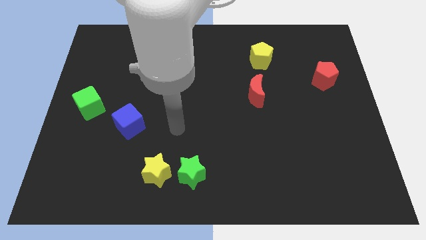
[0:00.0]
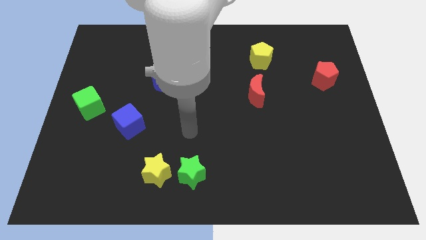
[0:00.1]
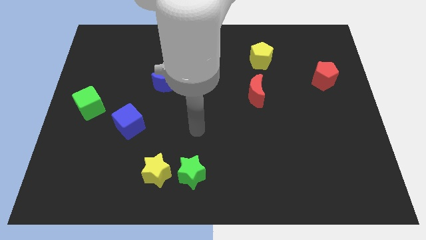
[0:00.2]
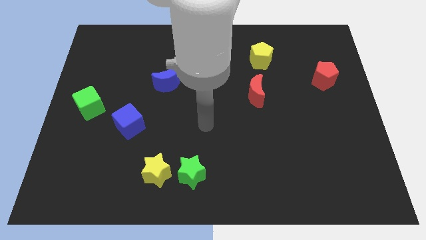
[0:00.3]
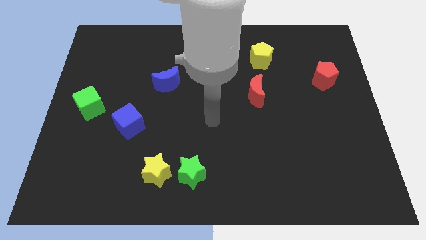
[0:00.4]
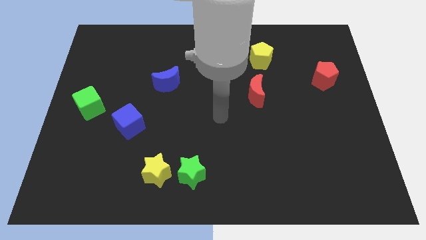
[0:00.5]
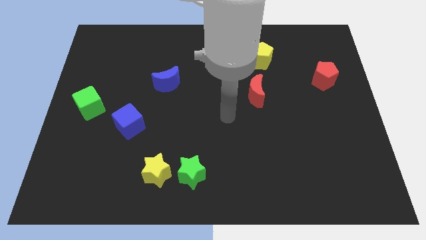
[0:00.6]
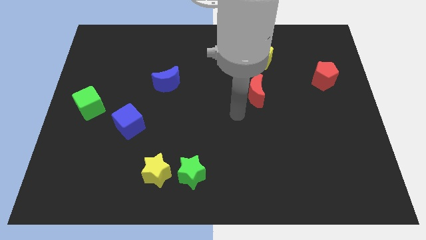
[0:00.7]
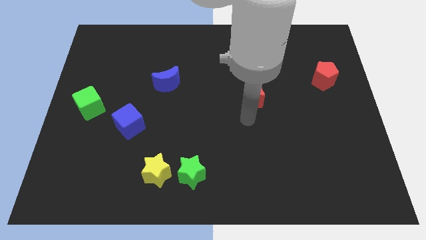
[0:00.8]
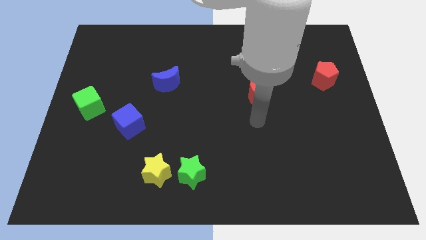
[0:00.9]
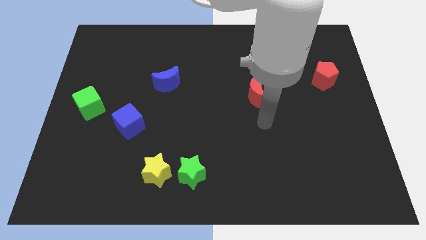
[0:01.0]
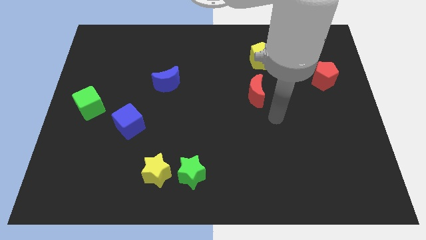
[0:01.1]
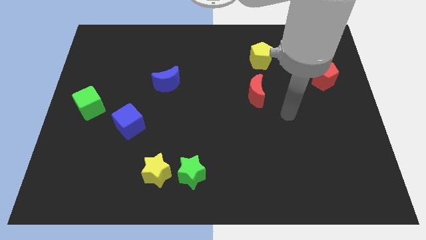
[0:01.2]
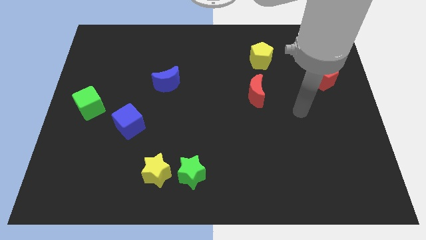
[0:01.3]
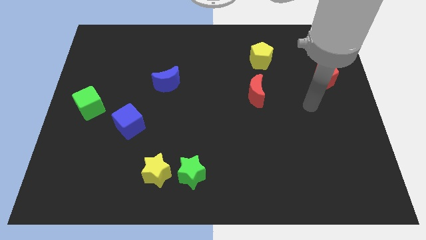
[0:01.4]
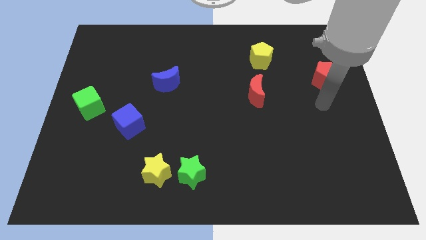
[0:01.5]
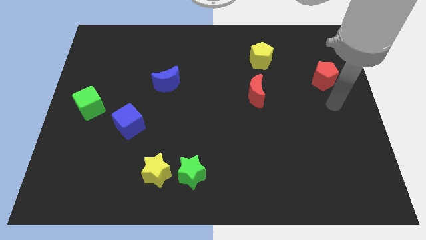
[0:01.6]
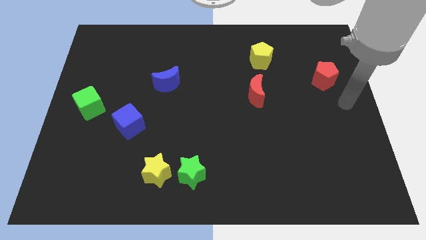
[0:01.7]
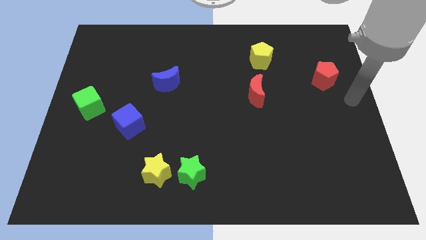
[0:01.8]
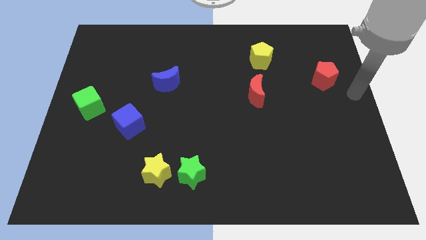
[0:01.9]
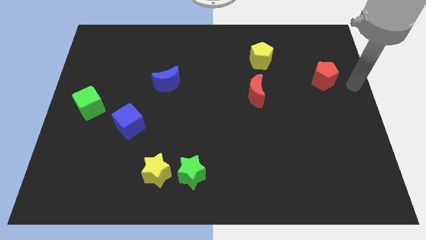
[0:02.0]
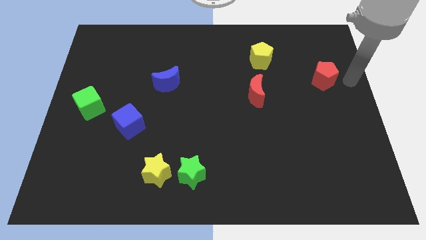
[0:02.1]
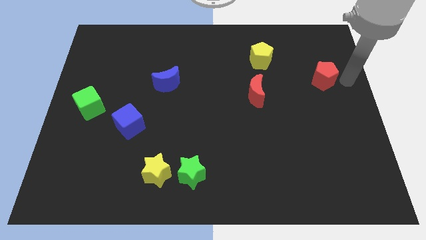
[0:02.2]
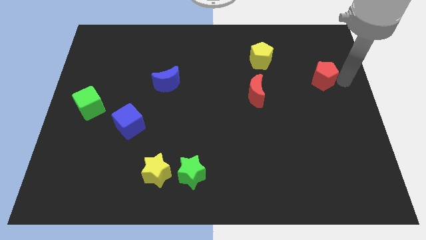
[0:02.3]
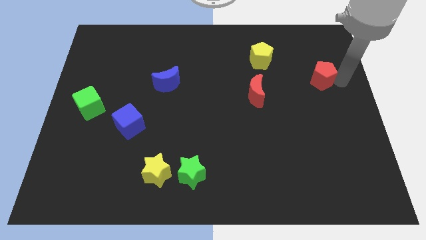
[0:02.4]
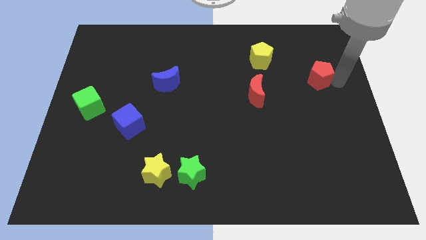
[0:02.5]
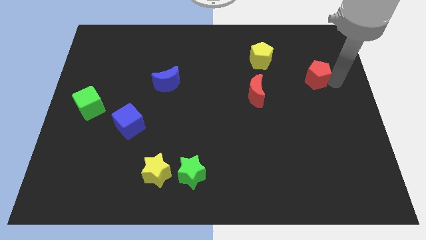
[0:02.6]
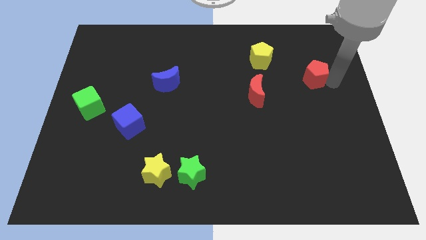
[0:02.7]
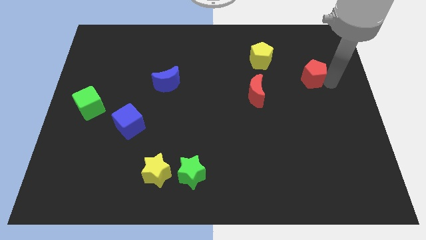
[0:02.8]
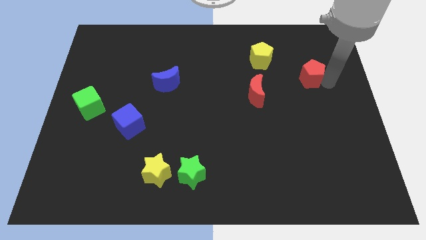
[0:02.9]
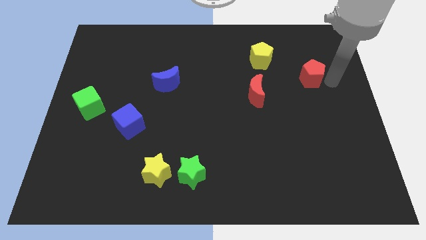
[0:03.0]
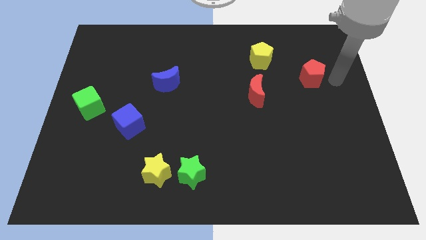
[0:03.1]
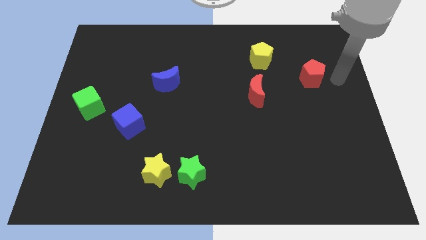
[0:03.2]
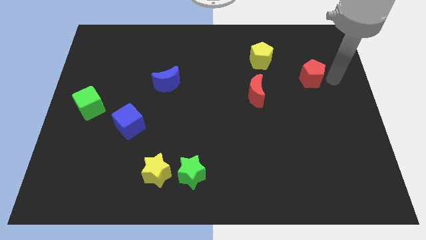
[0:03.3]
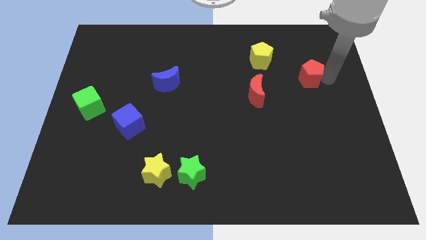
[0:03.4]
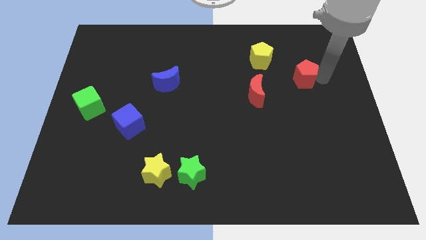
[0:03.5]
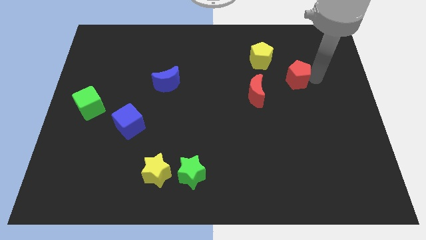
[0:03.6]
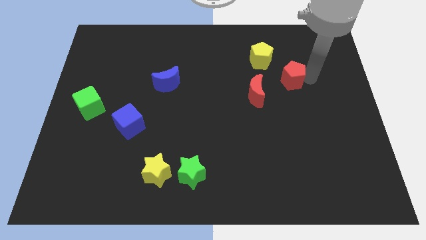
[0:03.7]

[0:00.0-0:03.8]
slide the red pentagon a little bit to the left

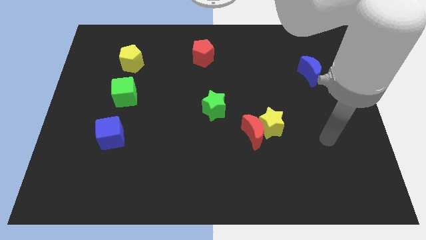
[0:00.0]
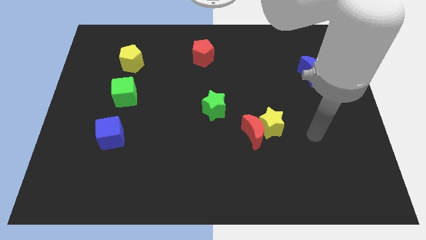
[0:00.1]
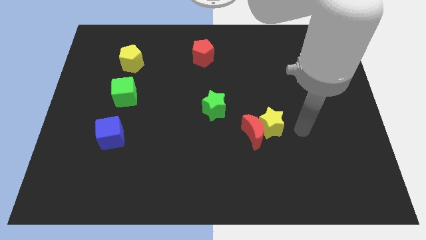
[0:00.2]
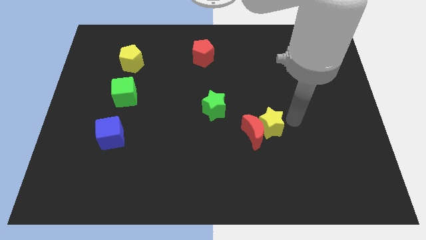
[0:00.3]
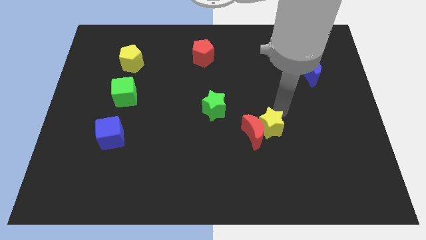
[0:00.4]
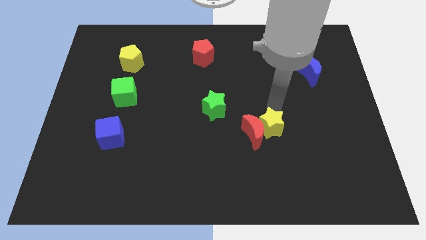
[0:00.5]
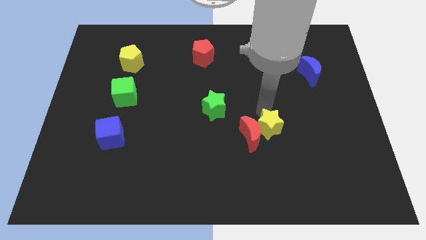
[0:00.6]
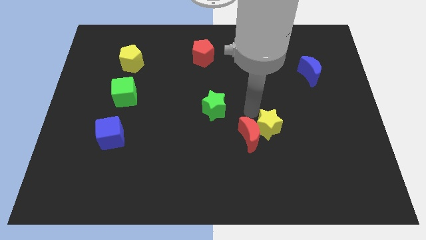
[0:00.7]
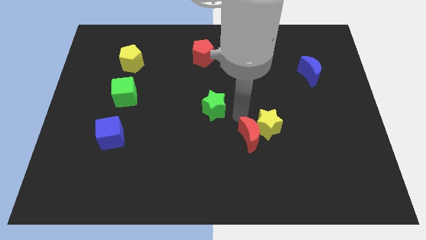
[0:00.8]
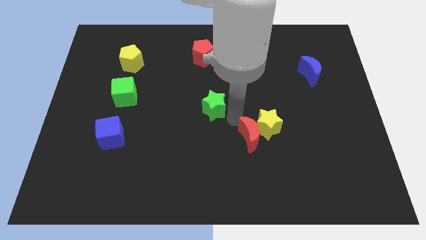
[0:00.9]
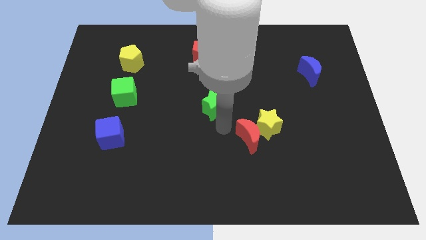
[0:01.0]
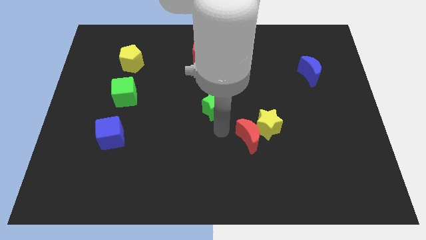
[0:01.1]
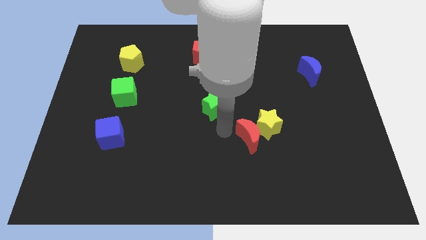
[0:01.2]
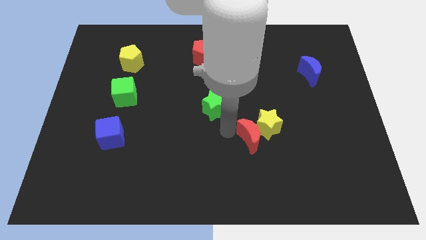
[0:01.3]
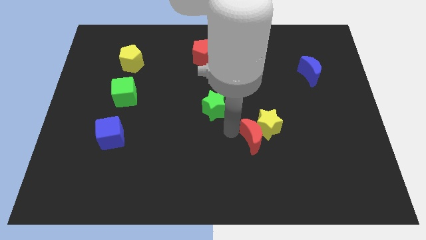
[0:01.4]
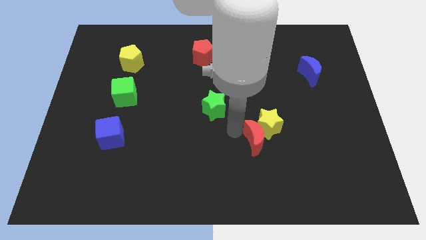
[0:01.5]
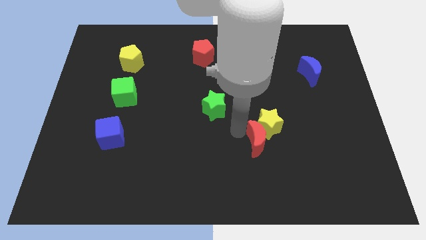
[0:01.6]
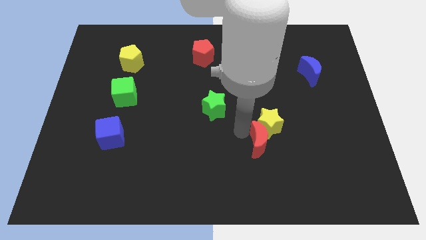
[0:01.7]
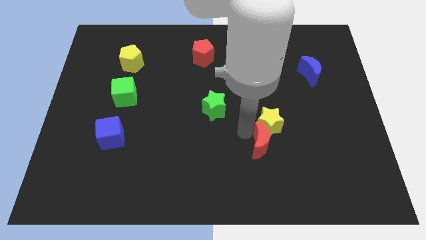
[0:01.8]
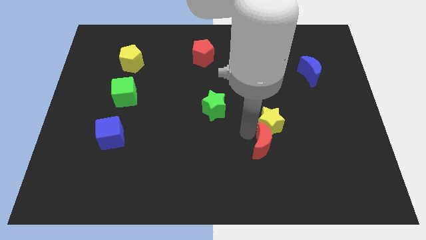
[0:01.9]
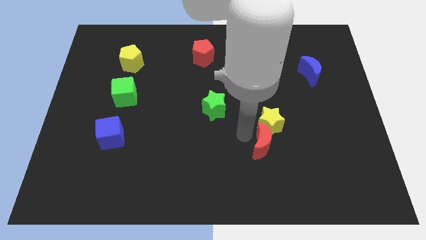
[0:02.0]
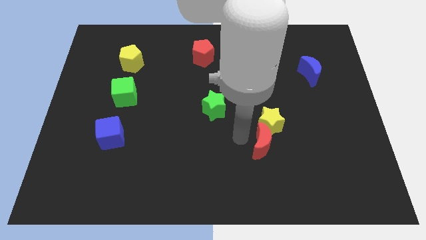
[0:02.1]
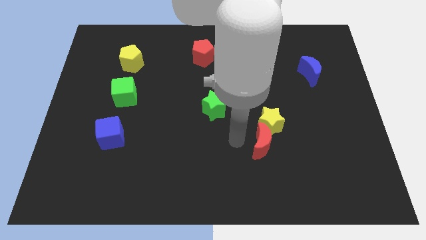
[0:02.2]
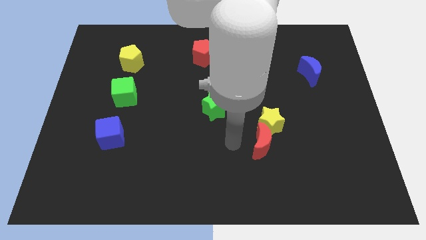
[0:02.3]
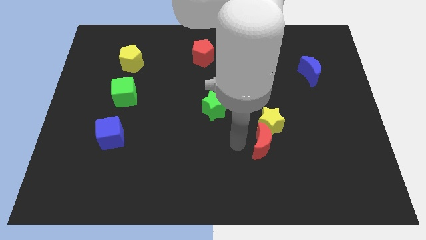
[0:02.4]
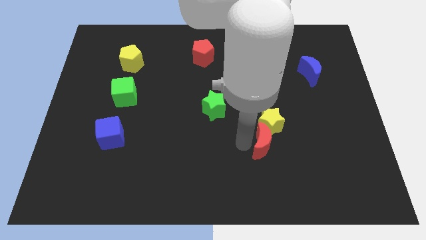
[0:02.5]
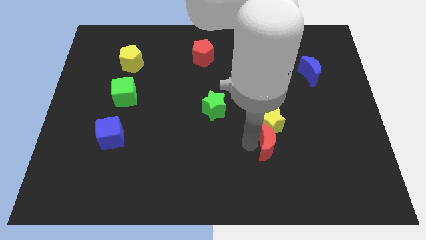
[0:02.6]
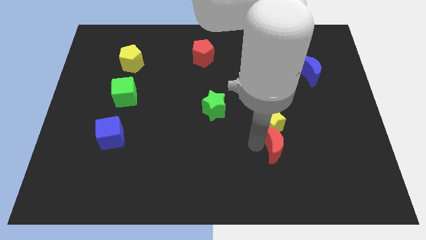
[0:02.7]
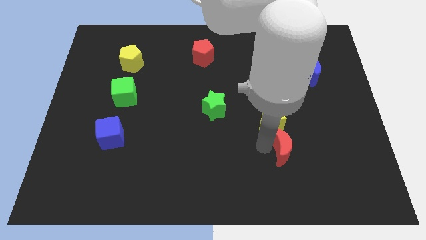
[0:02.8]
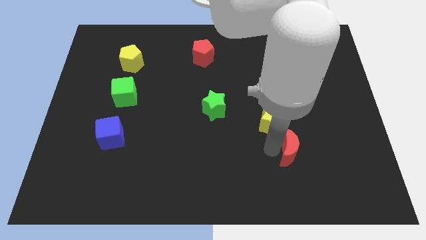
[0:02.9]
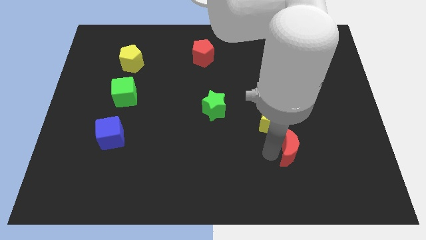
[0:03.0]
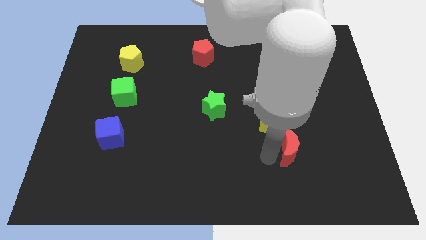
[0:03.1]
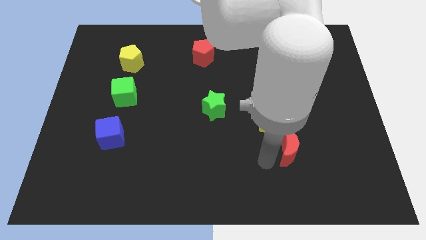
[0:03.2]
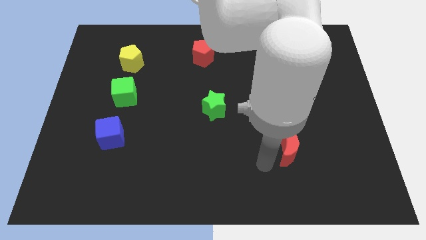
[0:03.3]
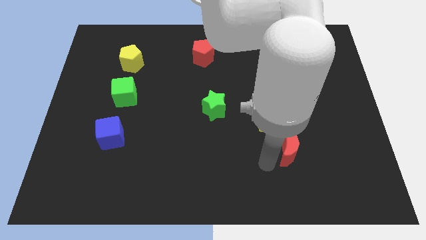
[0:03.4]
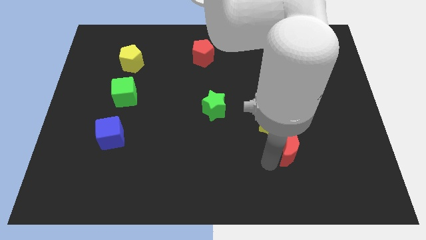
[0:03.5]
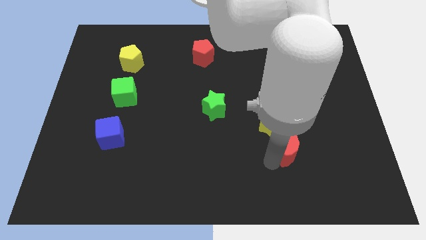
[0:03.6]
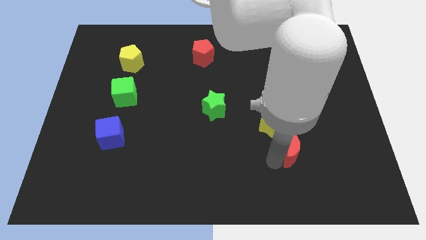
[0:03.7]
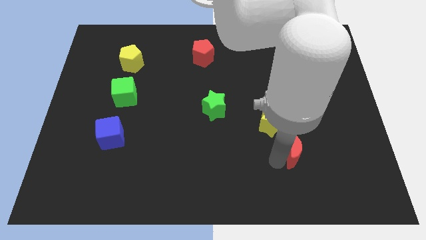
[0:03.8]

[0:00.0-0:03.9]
slightly move the red moon to the right

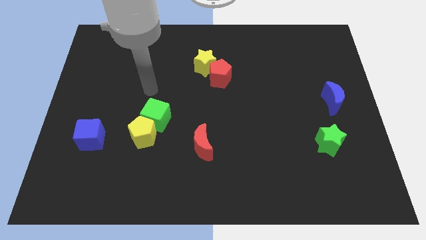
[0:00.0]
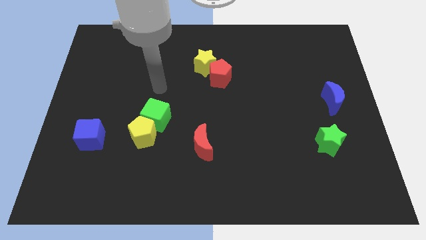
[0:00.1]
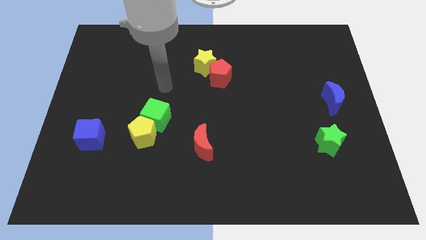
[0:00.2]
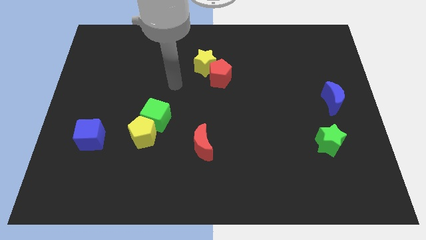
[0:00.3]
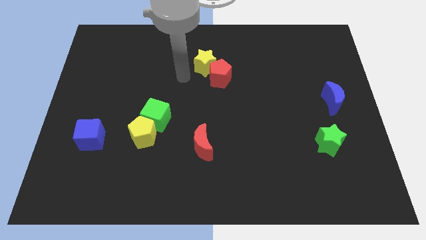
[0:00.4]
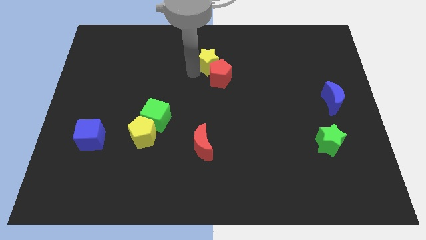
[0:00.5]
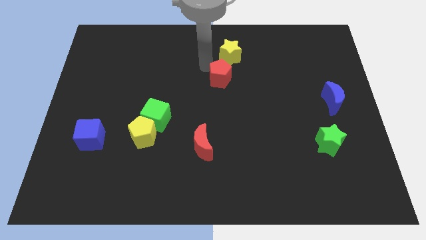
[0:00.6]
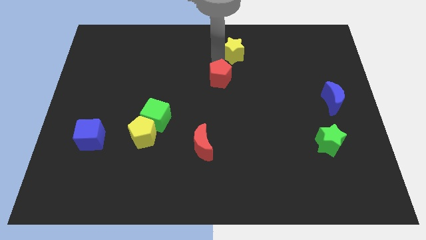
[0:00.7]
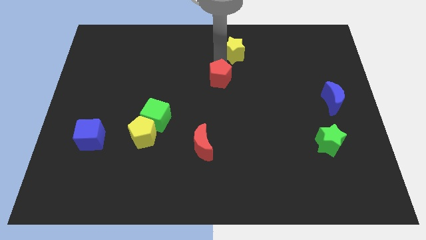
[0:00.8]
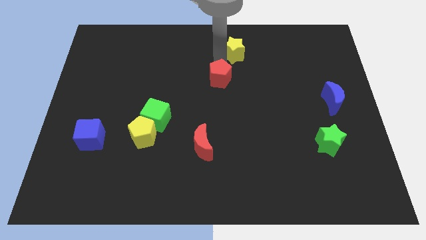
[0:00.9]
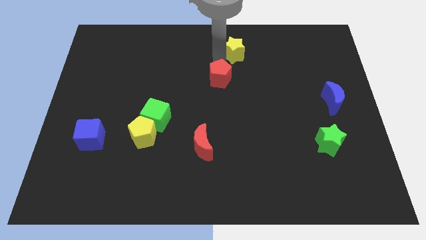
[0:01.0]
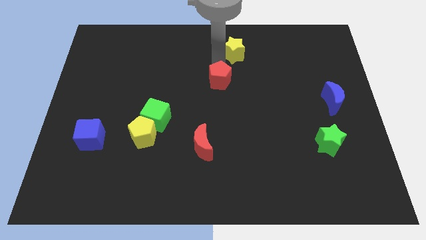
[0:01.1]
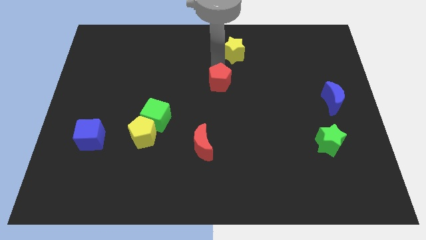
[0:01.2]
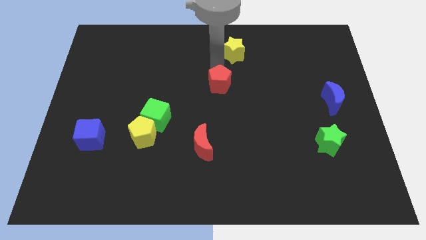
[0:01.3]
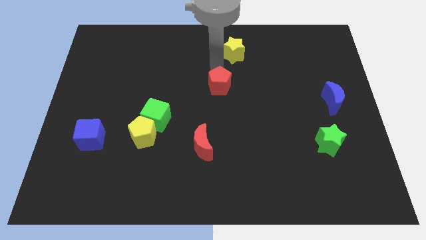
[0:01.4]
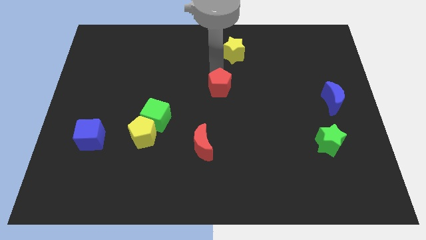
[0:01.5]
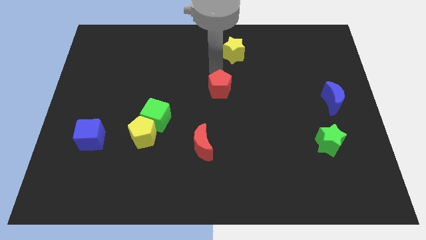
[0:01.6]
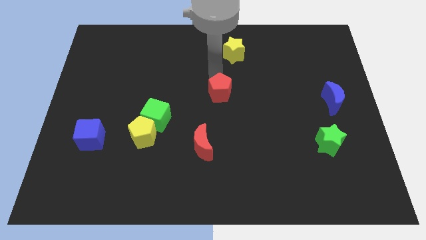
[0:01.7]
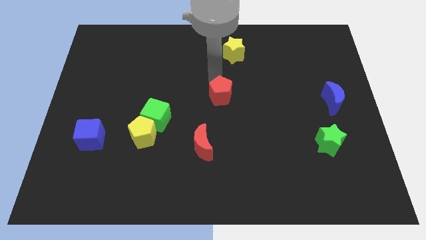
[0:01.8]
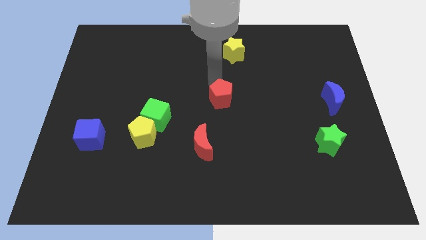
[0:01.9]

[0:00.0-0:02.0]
slightly move the red pentagon down
